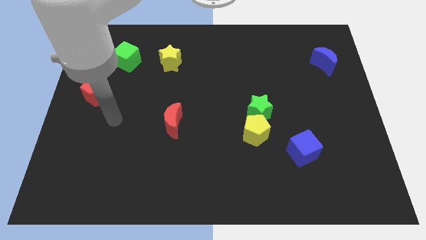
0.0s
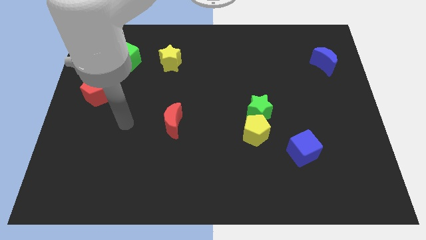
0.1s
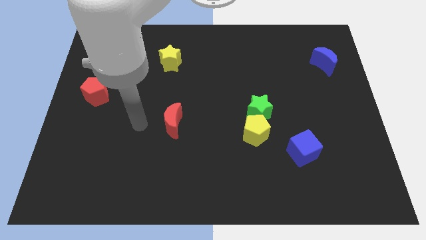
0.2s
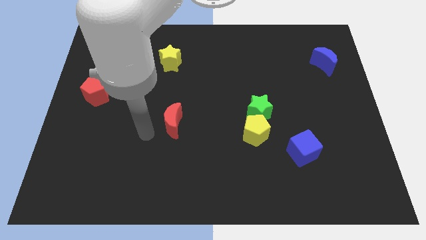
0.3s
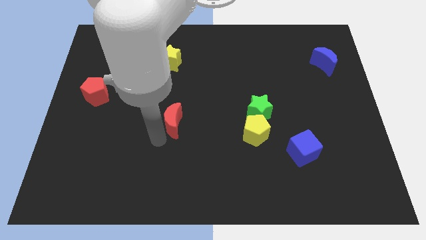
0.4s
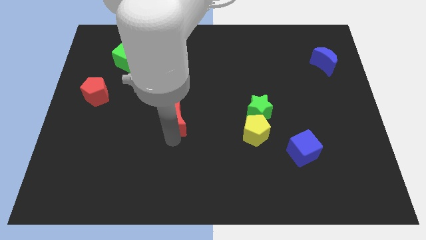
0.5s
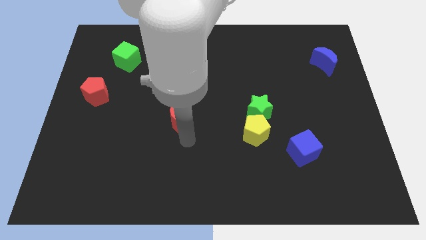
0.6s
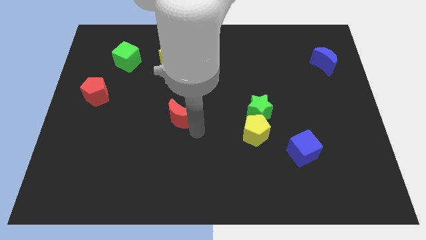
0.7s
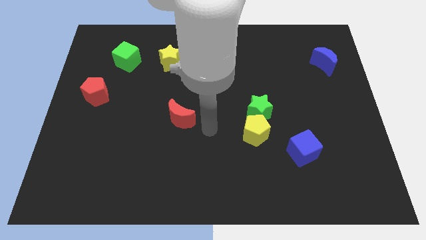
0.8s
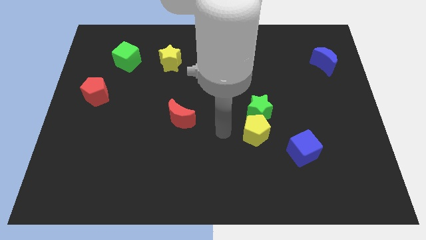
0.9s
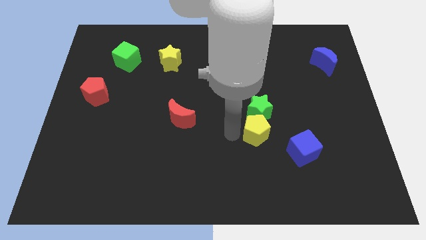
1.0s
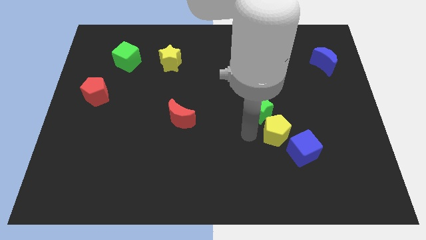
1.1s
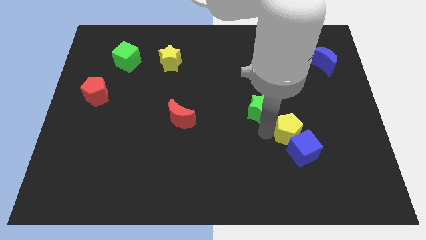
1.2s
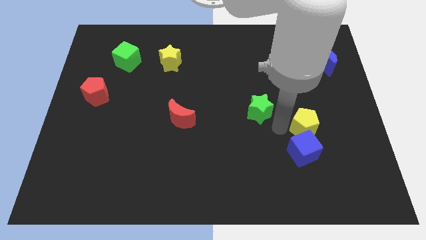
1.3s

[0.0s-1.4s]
move the green star away from the yellow pentagon

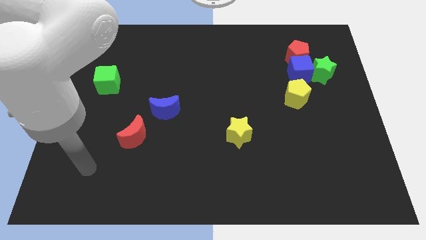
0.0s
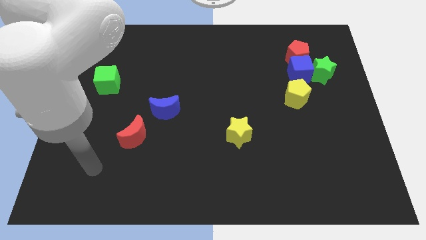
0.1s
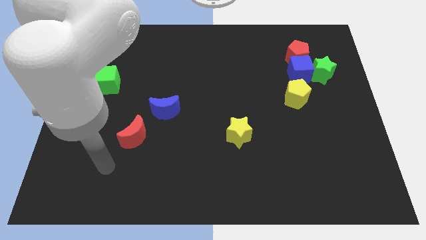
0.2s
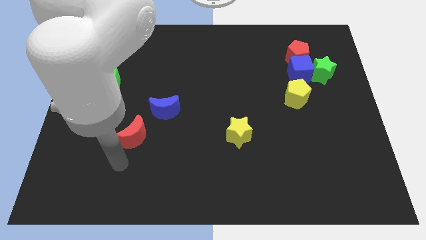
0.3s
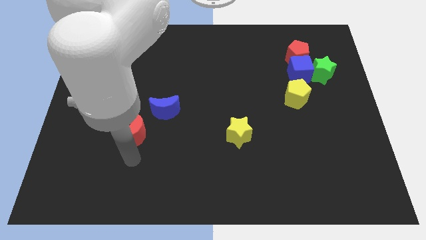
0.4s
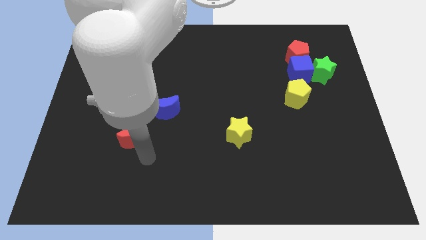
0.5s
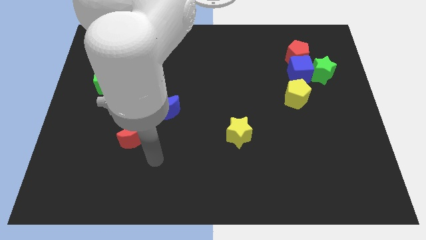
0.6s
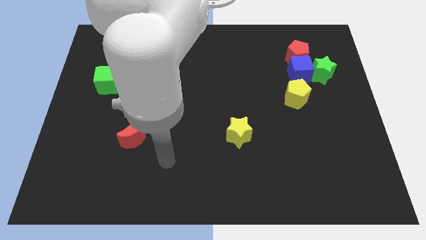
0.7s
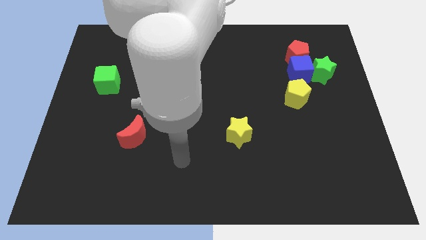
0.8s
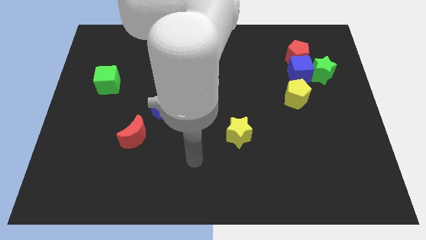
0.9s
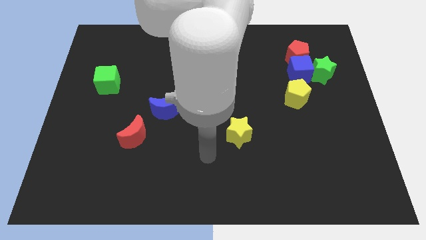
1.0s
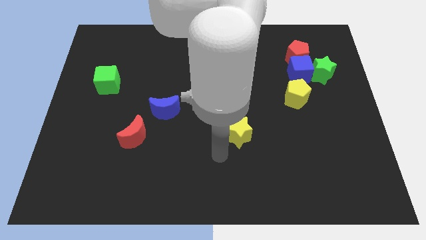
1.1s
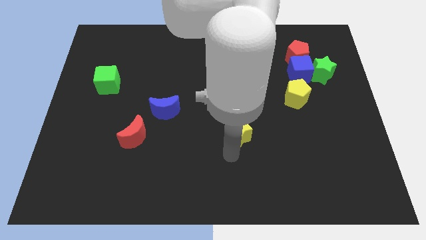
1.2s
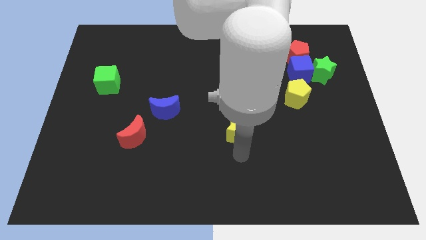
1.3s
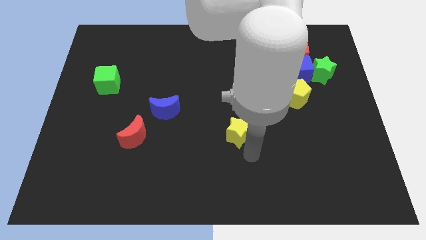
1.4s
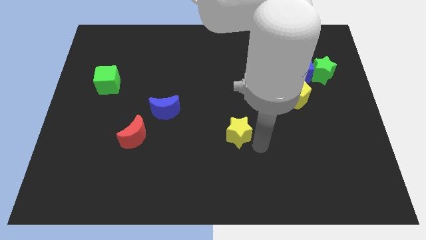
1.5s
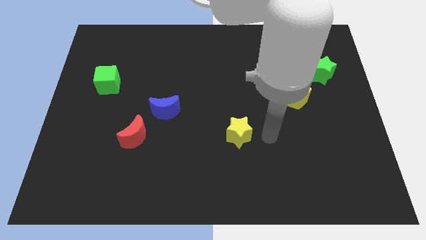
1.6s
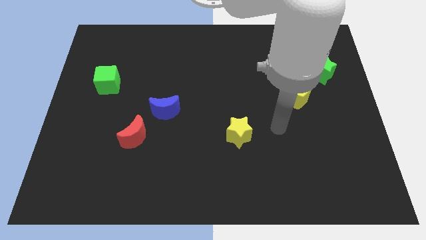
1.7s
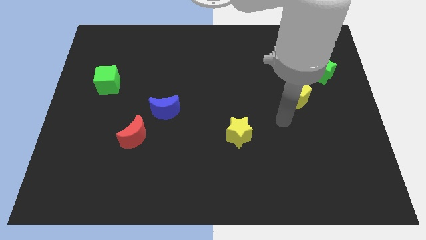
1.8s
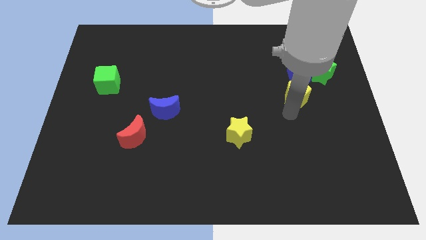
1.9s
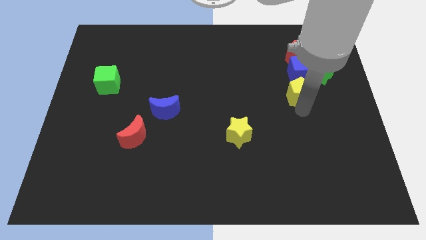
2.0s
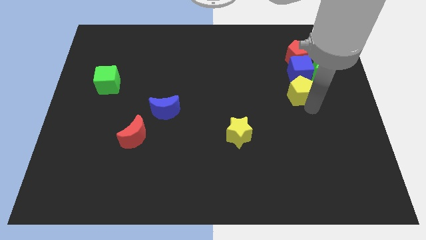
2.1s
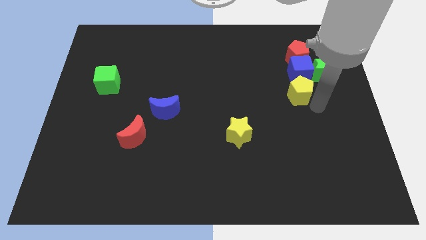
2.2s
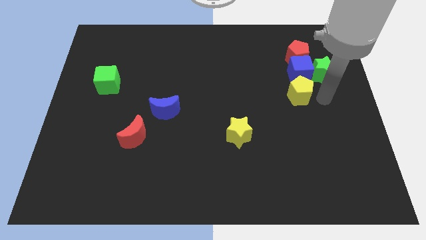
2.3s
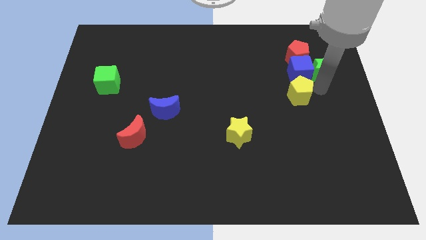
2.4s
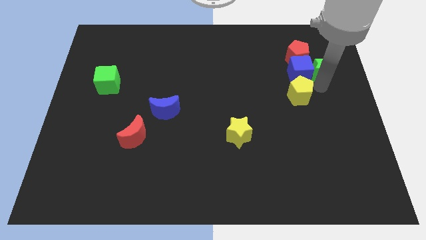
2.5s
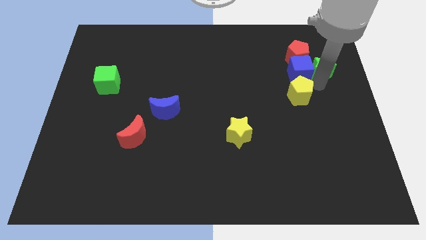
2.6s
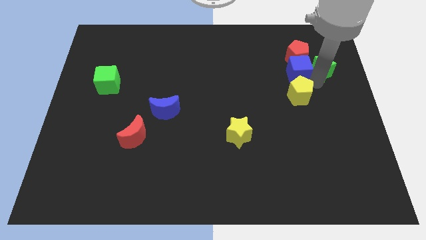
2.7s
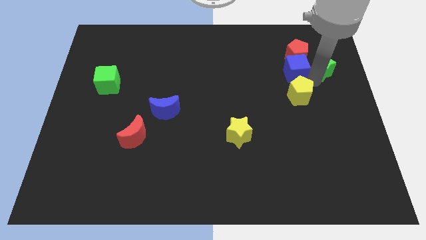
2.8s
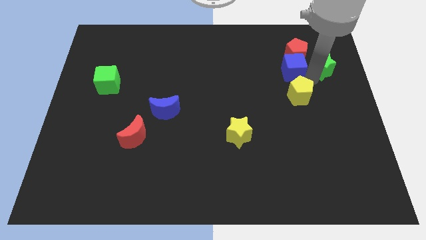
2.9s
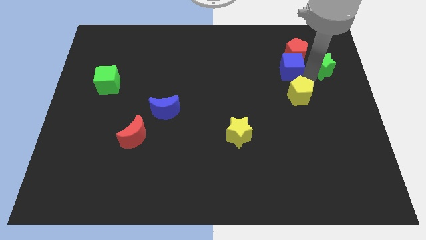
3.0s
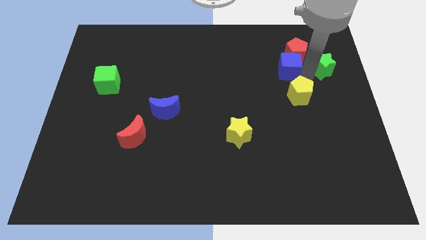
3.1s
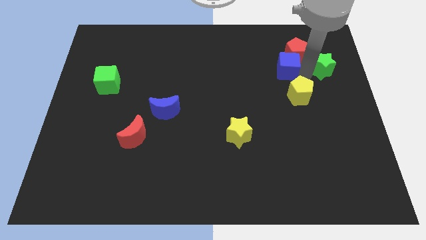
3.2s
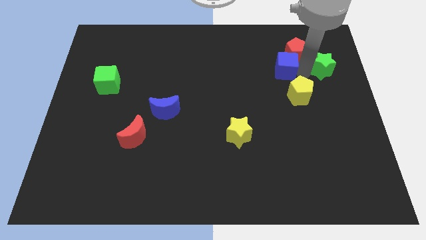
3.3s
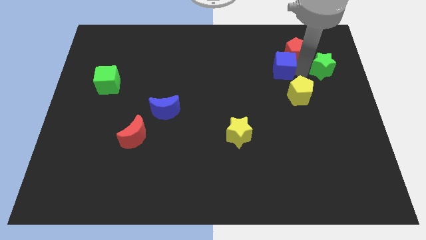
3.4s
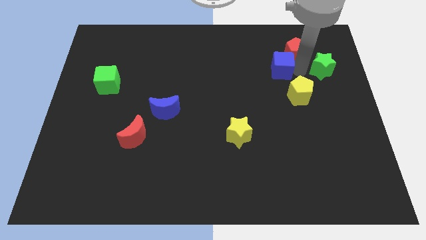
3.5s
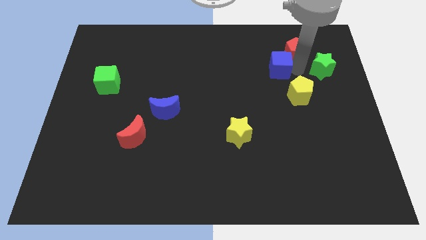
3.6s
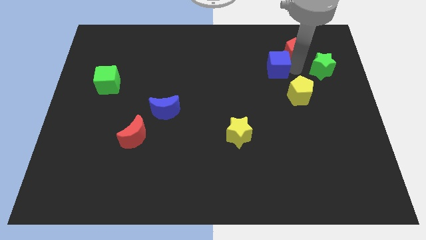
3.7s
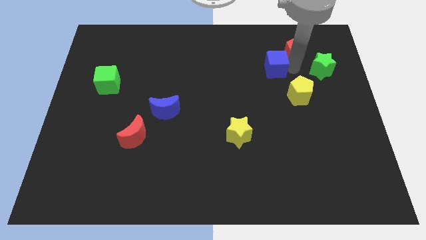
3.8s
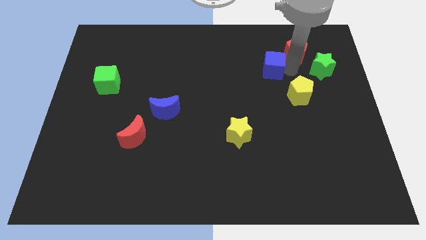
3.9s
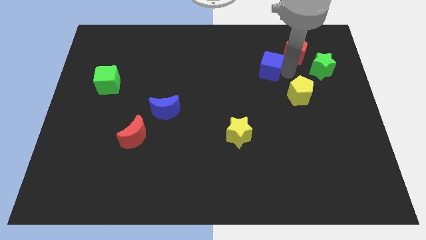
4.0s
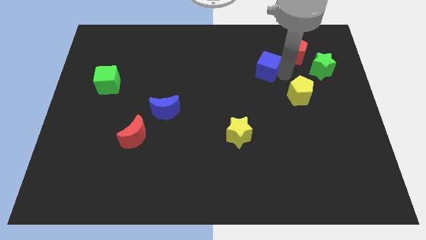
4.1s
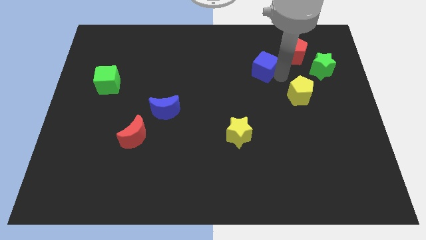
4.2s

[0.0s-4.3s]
pull the blue cube apart from the clump

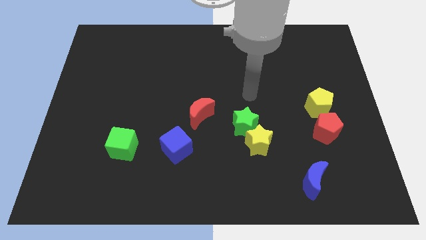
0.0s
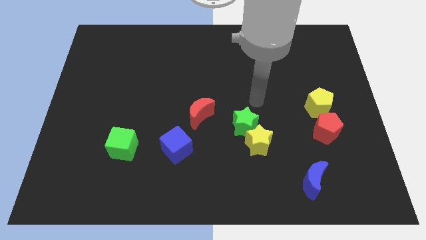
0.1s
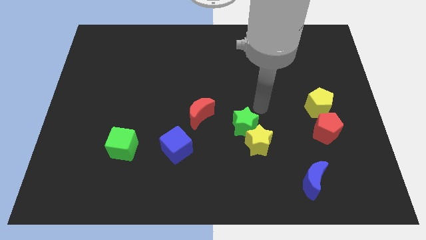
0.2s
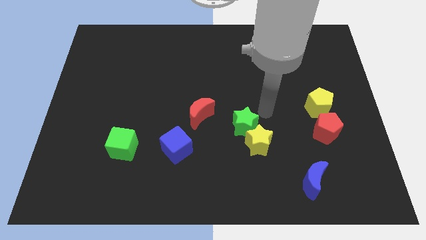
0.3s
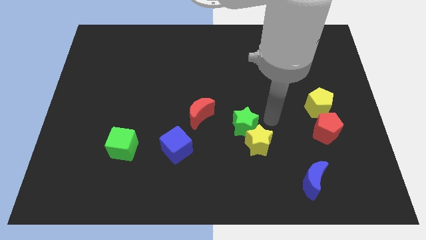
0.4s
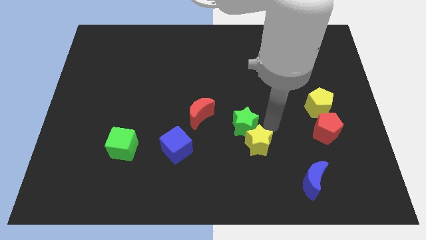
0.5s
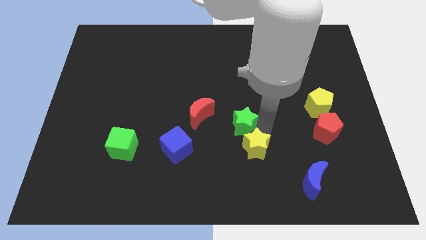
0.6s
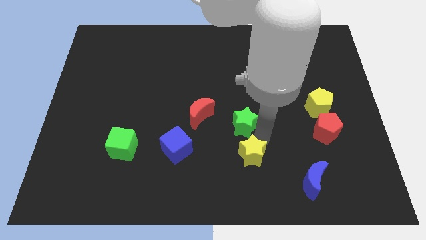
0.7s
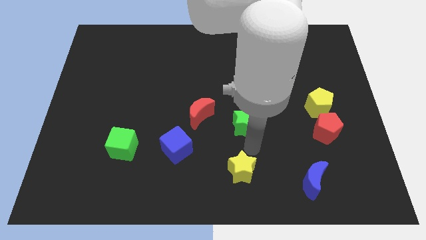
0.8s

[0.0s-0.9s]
separate the green star from the yellow star

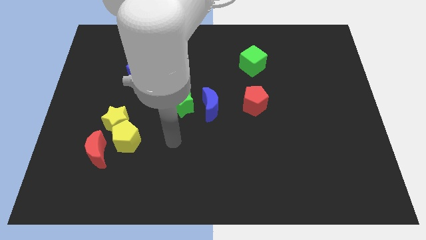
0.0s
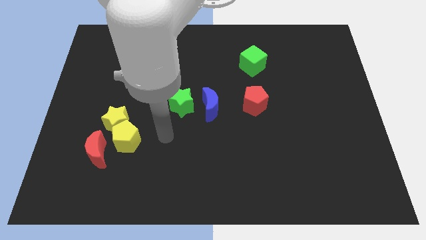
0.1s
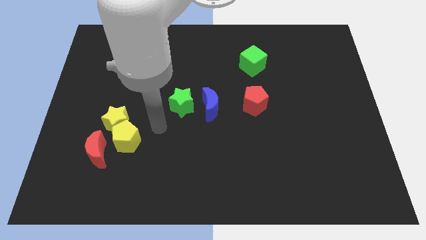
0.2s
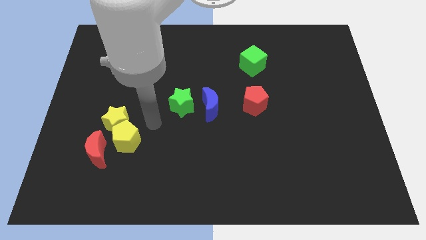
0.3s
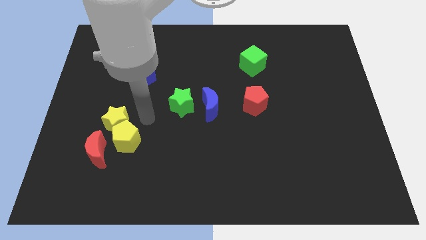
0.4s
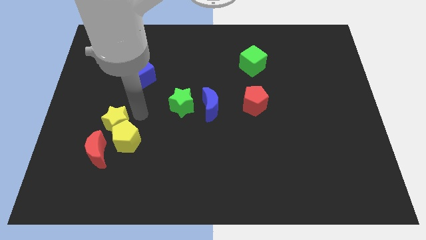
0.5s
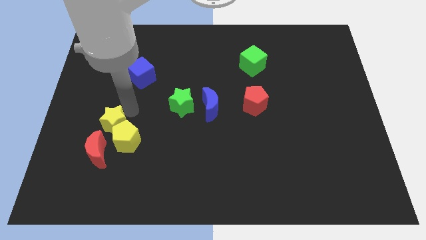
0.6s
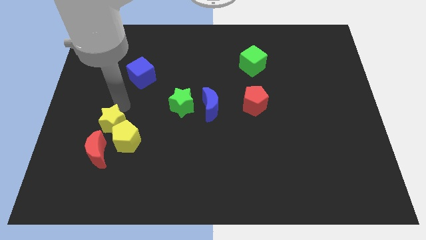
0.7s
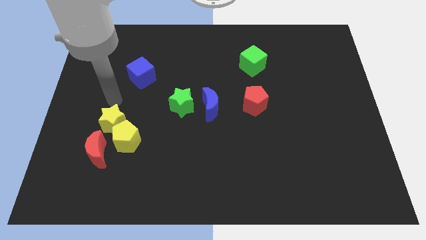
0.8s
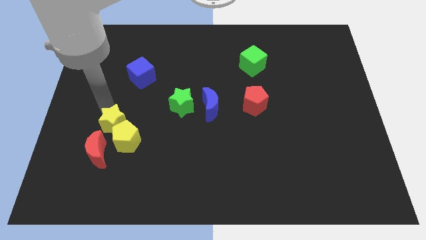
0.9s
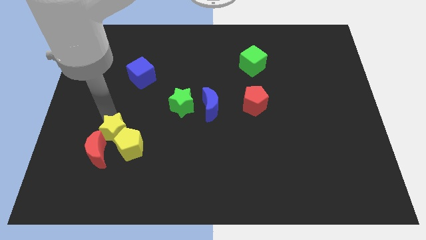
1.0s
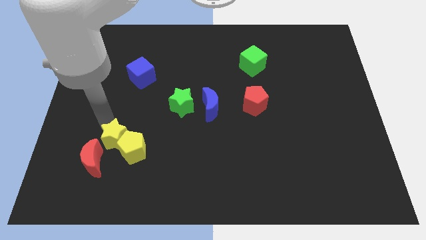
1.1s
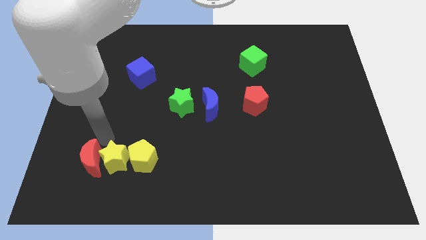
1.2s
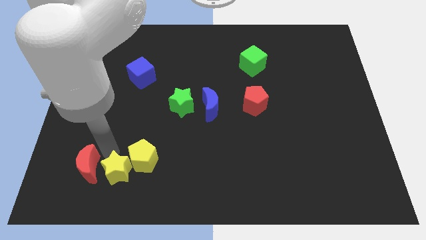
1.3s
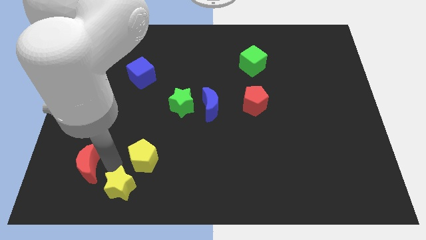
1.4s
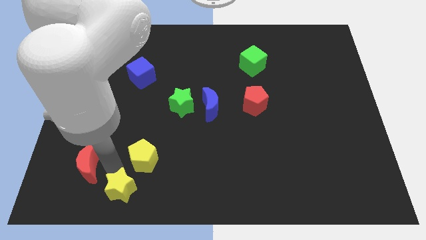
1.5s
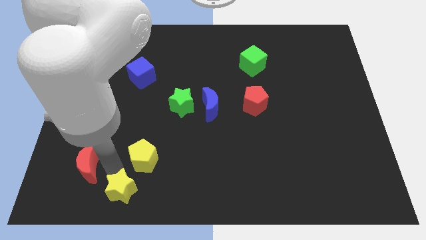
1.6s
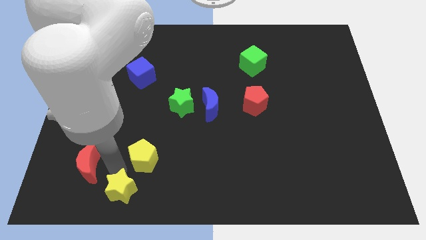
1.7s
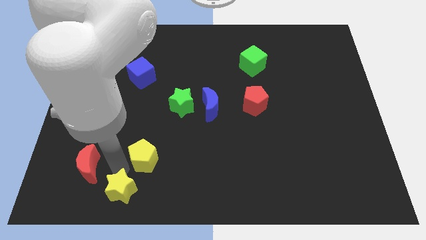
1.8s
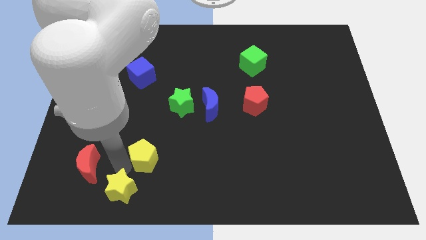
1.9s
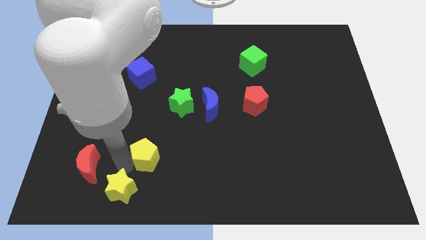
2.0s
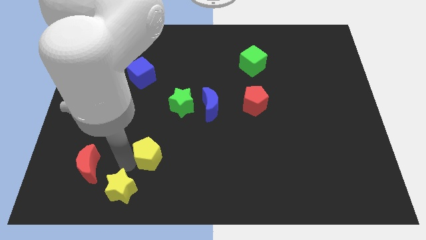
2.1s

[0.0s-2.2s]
separate the yellow pentagon from the yellow star and red moon

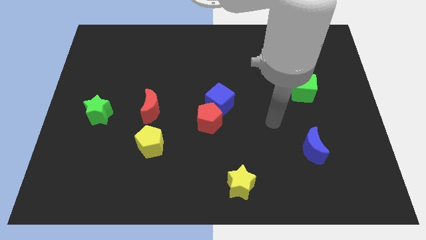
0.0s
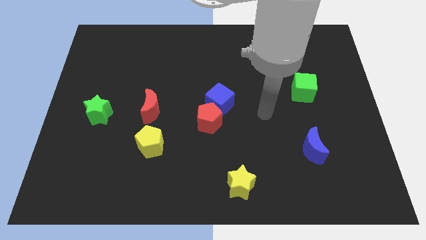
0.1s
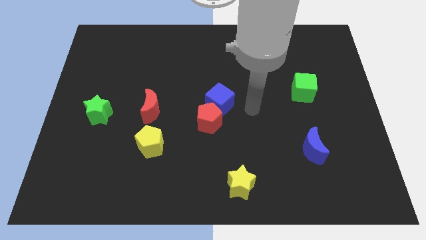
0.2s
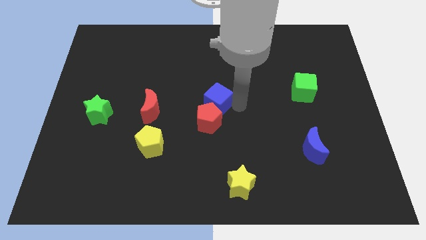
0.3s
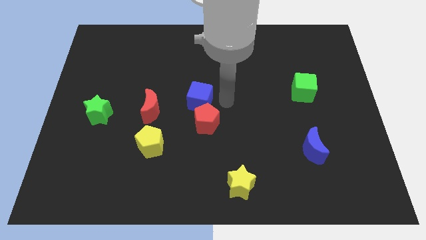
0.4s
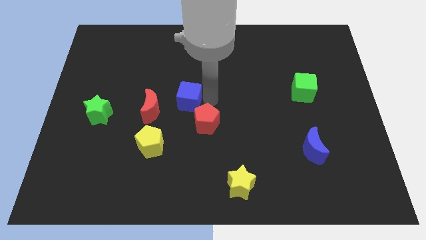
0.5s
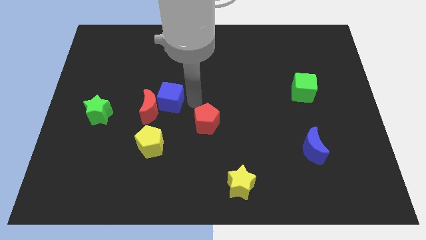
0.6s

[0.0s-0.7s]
pull the red pentagon apart from the blue cube
